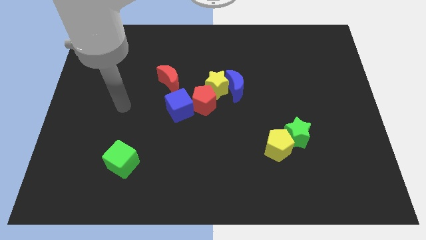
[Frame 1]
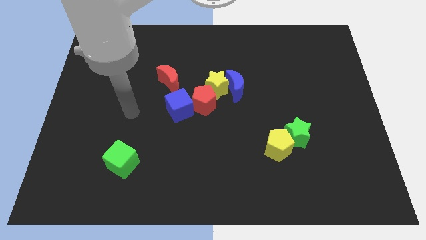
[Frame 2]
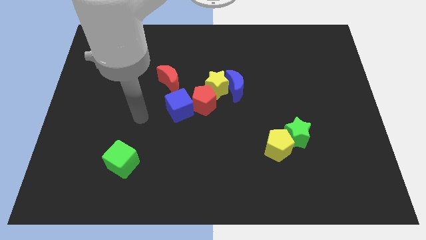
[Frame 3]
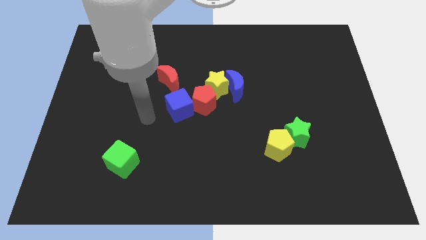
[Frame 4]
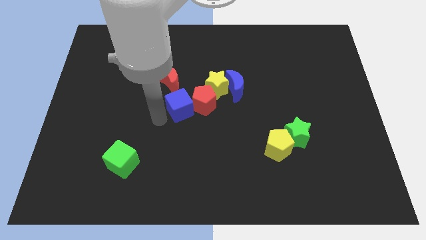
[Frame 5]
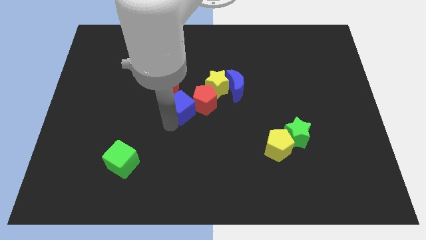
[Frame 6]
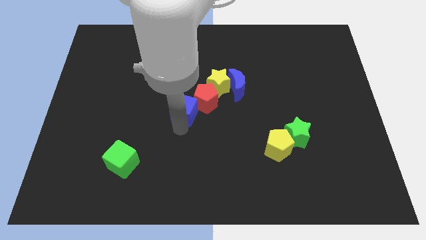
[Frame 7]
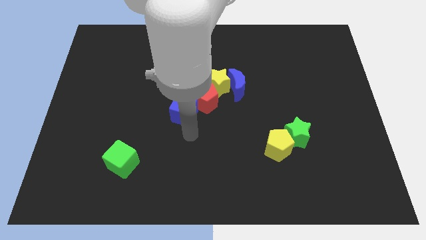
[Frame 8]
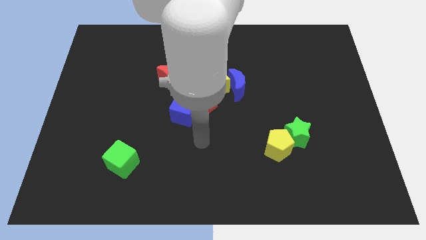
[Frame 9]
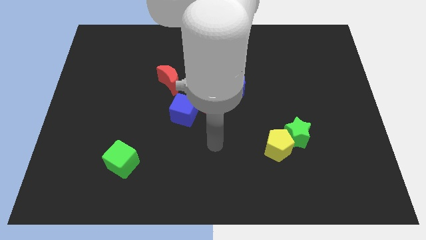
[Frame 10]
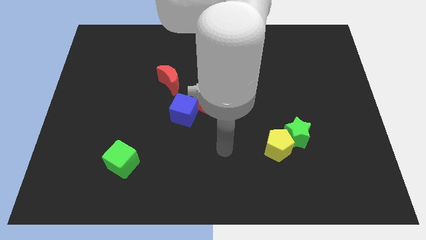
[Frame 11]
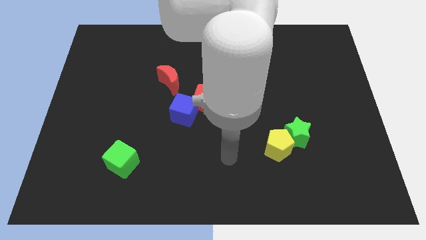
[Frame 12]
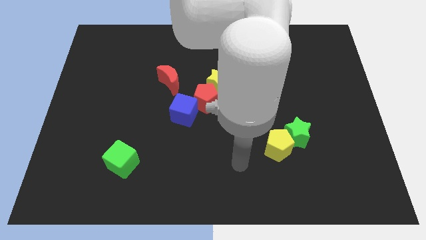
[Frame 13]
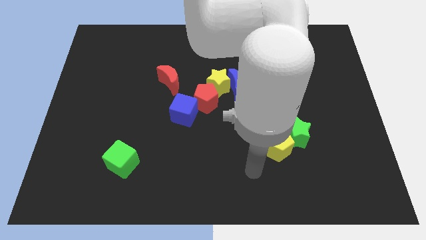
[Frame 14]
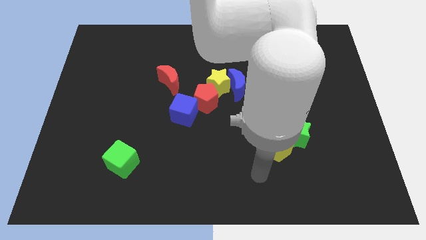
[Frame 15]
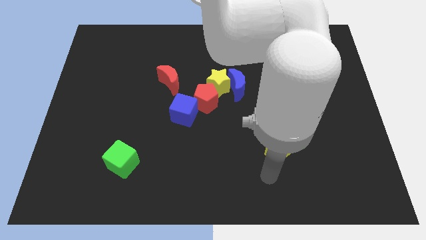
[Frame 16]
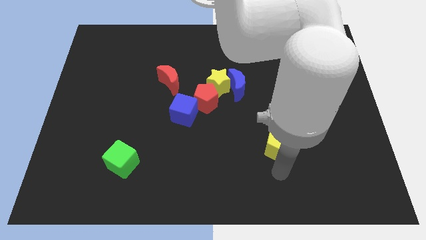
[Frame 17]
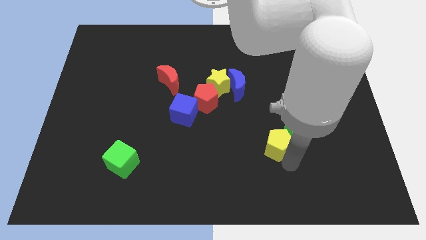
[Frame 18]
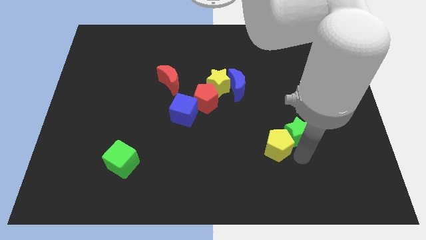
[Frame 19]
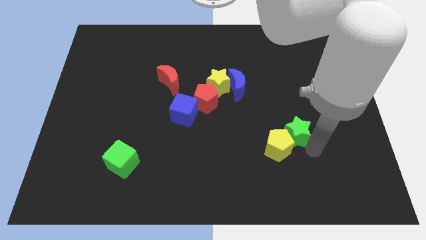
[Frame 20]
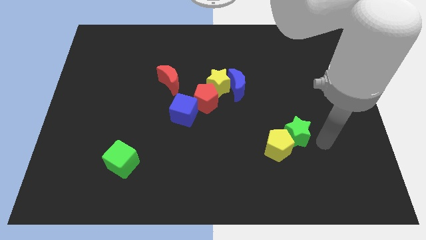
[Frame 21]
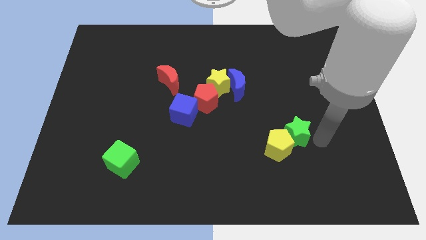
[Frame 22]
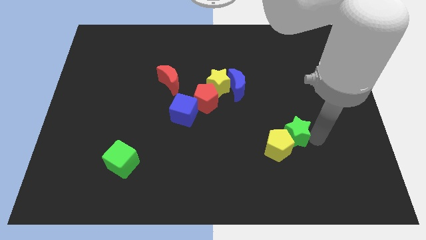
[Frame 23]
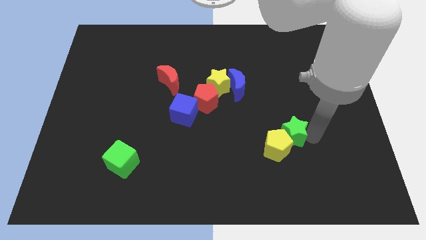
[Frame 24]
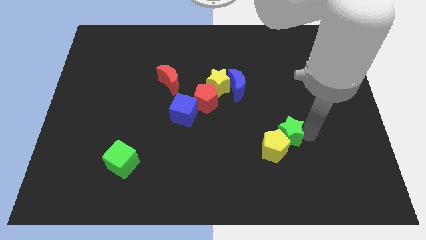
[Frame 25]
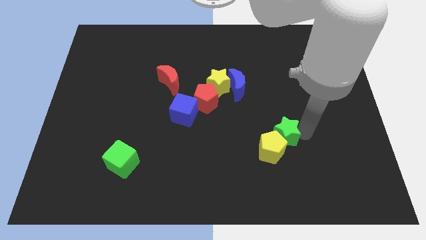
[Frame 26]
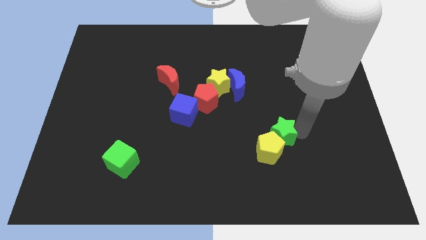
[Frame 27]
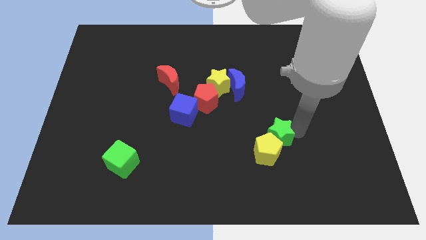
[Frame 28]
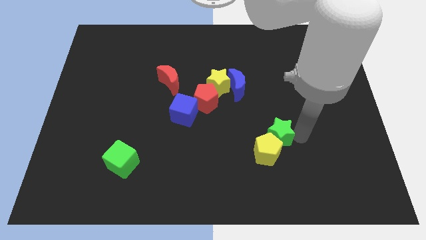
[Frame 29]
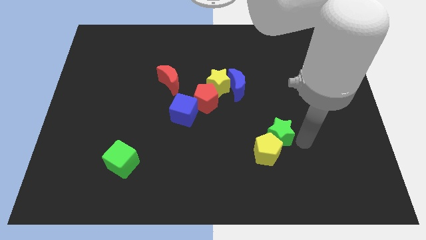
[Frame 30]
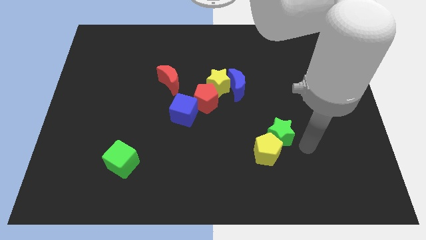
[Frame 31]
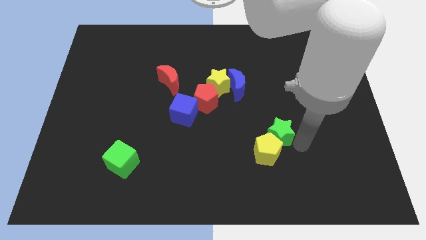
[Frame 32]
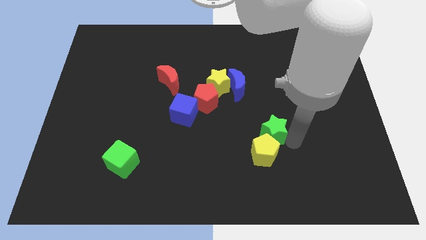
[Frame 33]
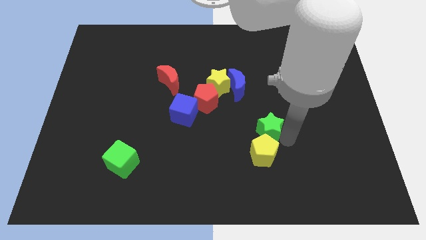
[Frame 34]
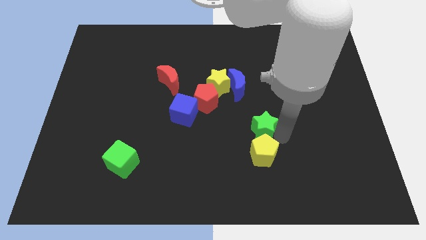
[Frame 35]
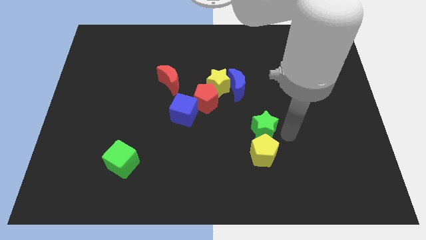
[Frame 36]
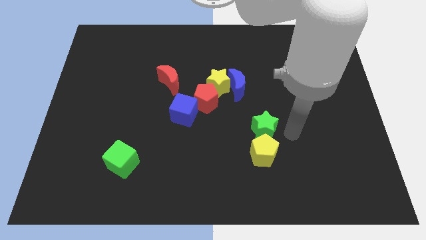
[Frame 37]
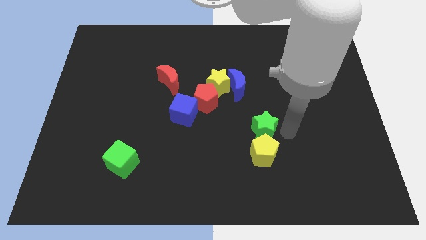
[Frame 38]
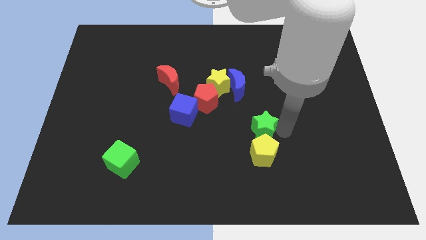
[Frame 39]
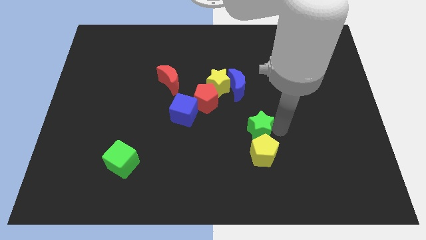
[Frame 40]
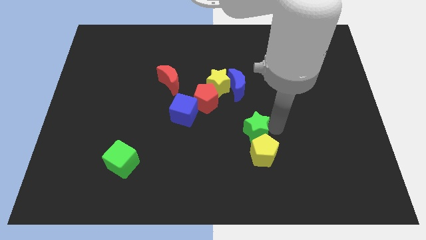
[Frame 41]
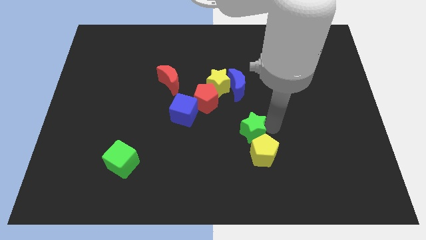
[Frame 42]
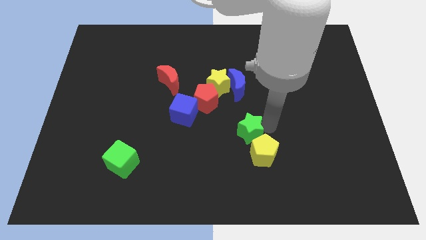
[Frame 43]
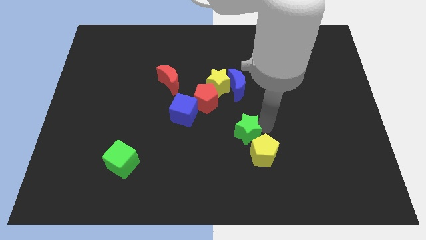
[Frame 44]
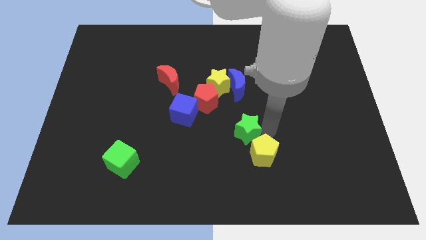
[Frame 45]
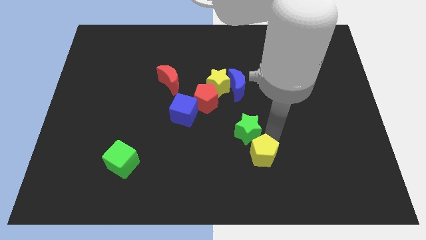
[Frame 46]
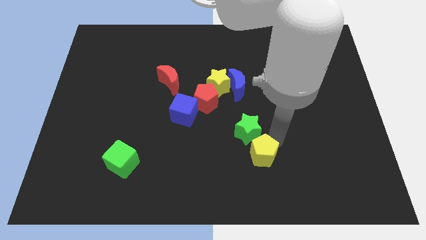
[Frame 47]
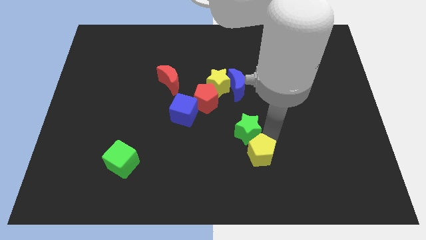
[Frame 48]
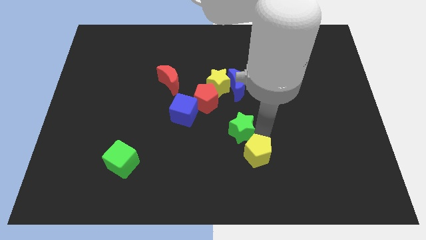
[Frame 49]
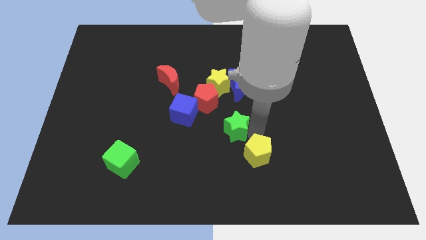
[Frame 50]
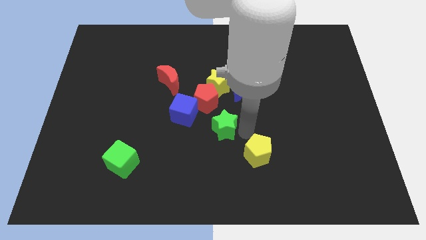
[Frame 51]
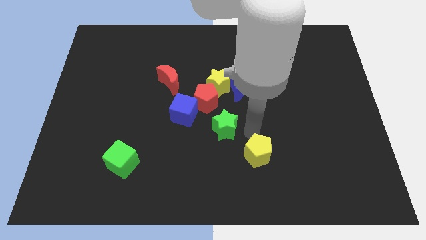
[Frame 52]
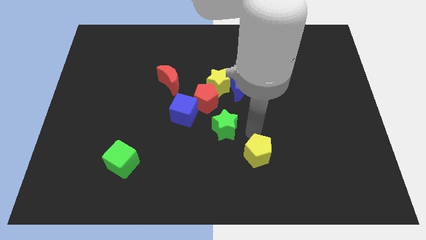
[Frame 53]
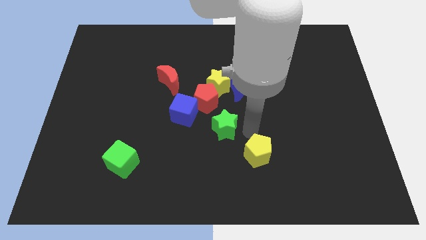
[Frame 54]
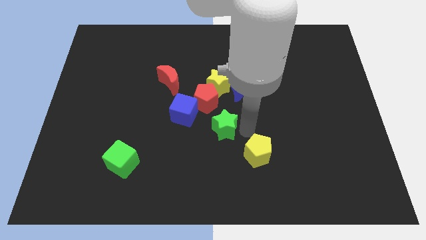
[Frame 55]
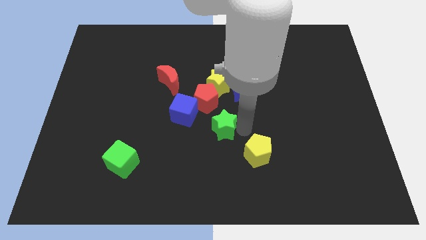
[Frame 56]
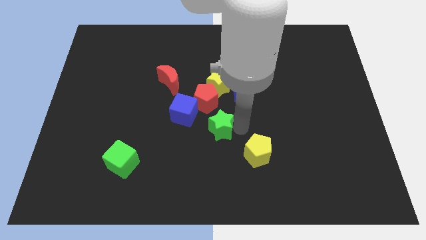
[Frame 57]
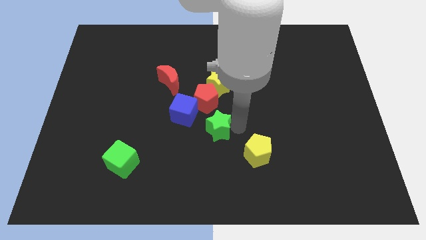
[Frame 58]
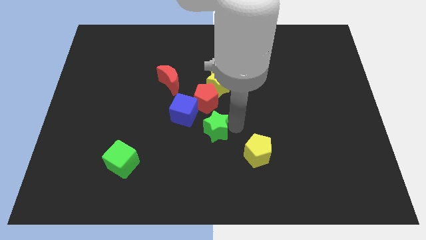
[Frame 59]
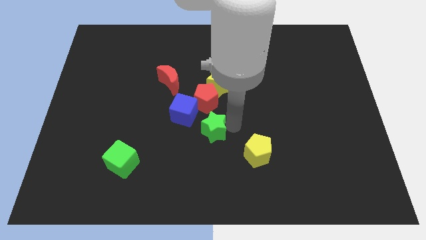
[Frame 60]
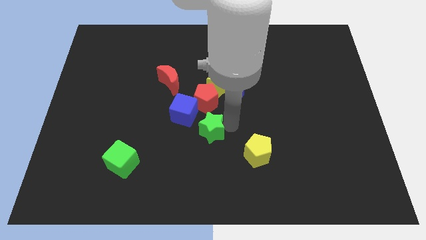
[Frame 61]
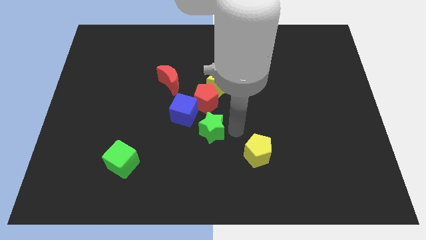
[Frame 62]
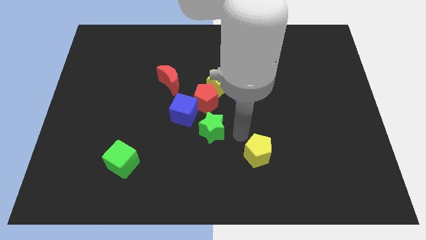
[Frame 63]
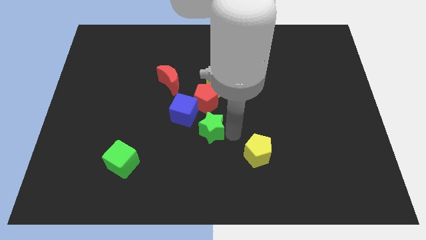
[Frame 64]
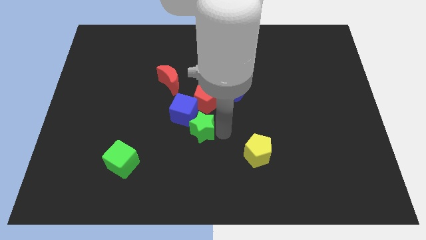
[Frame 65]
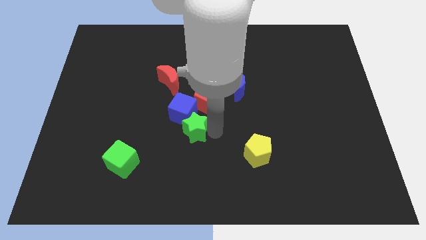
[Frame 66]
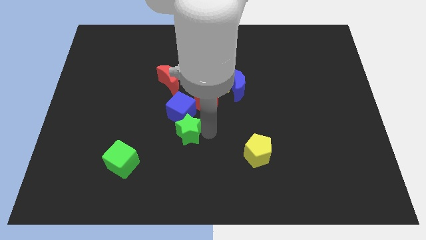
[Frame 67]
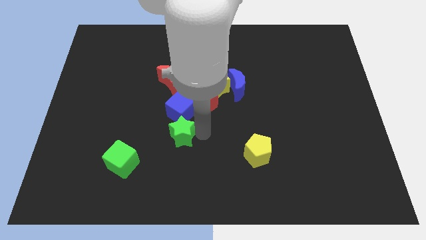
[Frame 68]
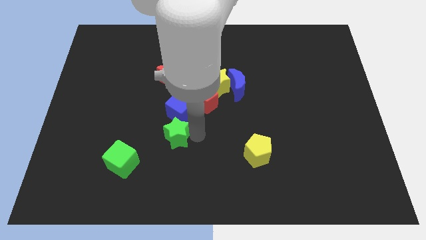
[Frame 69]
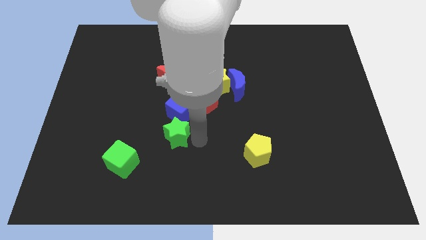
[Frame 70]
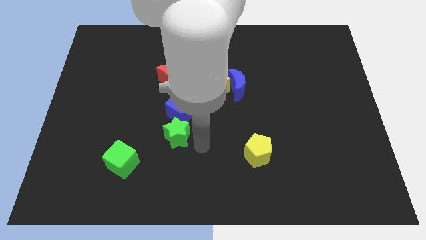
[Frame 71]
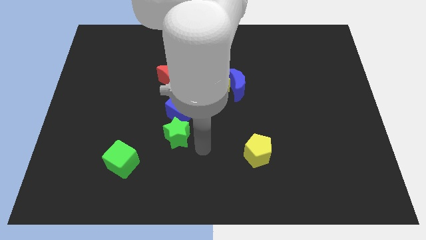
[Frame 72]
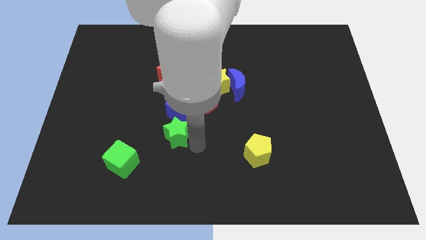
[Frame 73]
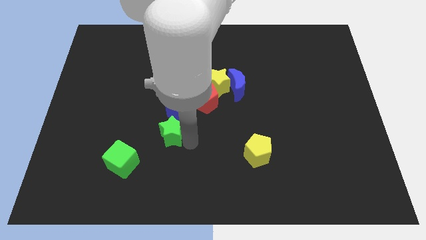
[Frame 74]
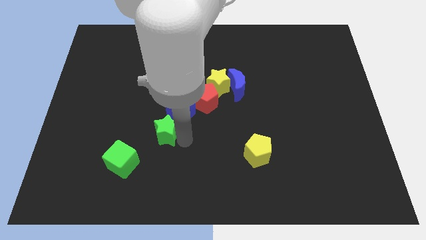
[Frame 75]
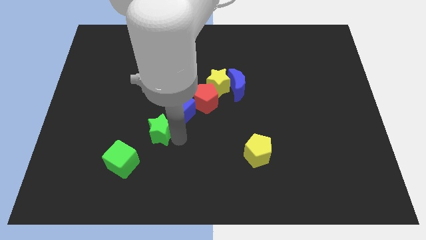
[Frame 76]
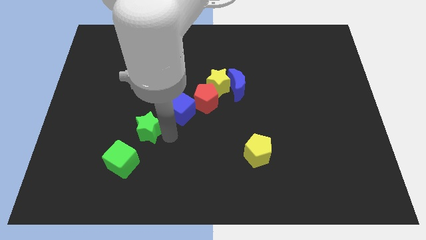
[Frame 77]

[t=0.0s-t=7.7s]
push the green star to the top side of the green cube

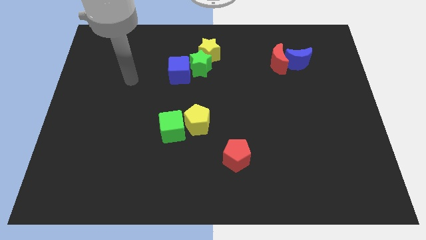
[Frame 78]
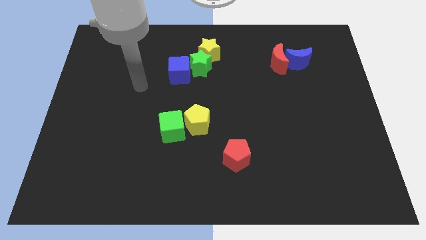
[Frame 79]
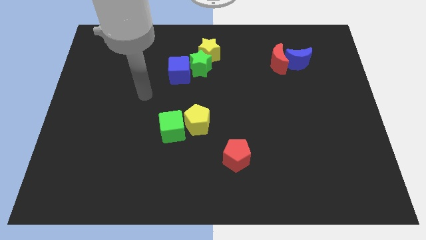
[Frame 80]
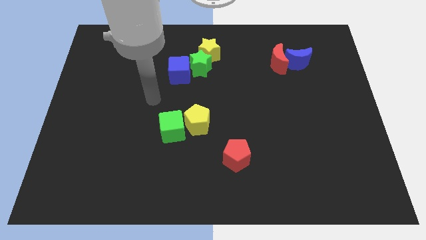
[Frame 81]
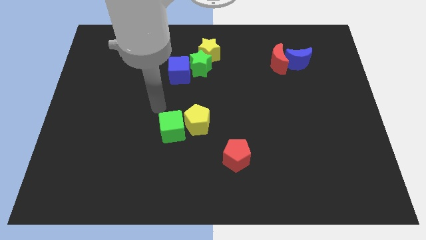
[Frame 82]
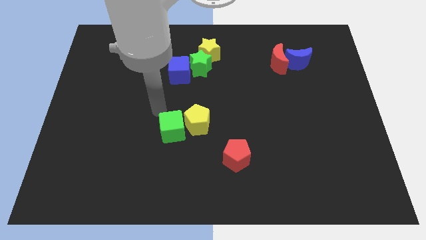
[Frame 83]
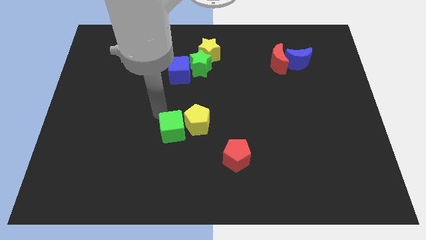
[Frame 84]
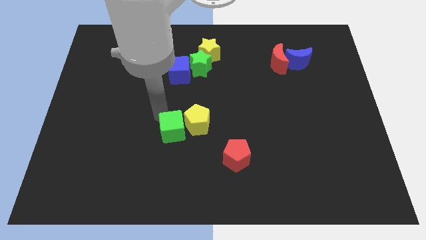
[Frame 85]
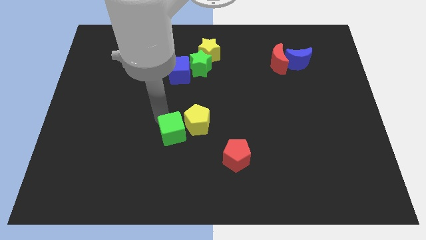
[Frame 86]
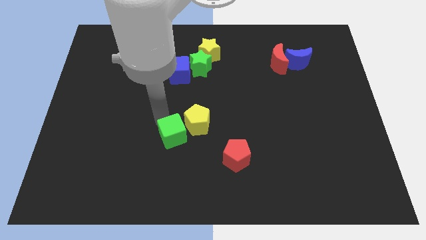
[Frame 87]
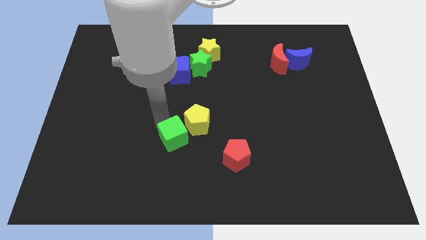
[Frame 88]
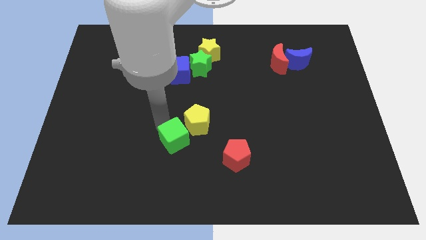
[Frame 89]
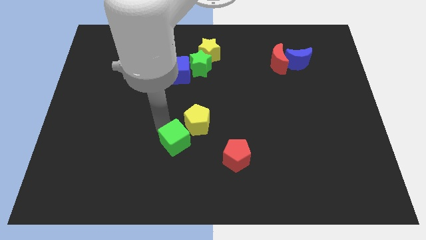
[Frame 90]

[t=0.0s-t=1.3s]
slide the green cube below the yellow pentagon
